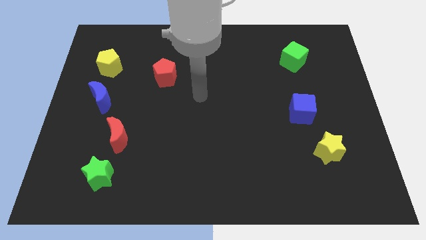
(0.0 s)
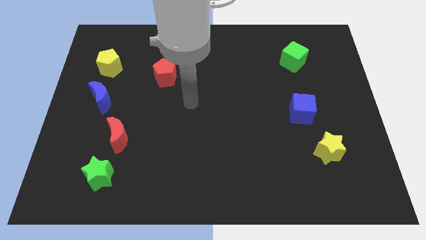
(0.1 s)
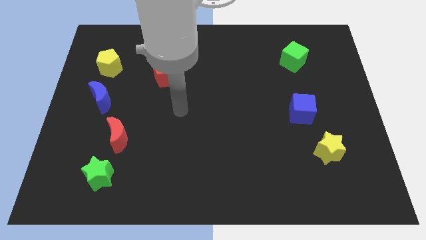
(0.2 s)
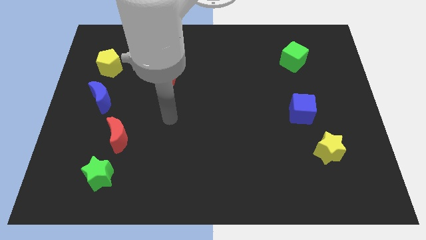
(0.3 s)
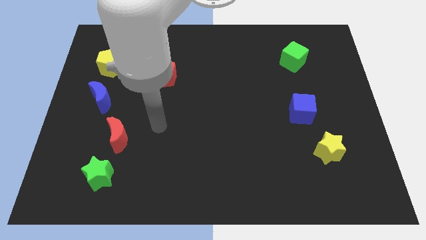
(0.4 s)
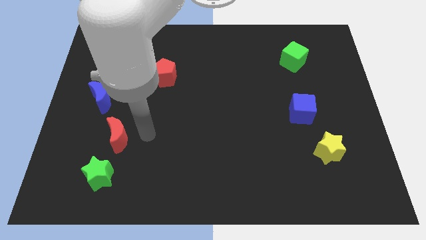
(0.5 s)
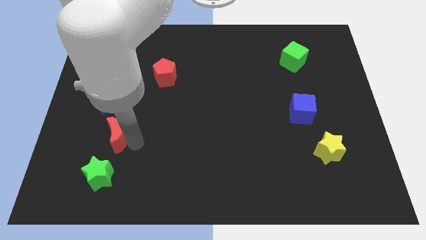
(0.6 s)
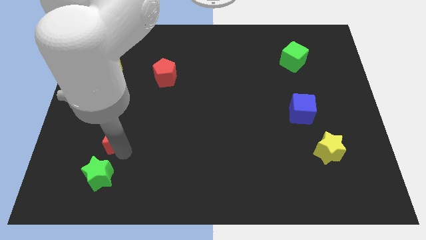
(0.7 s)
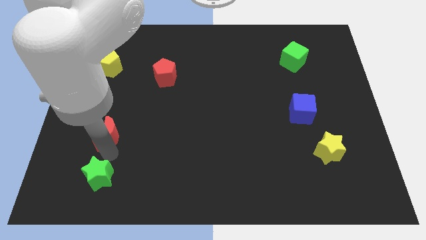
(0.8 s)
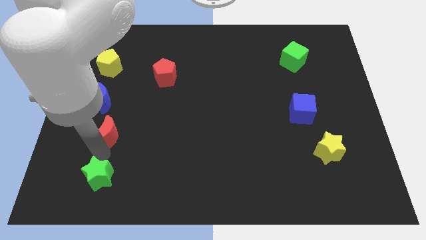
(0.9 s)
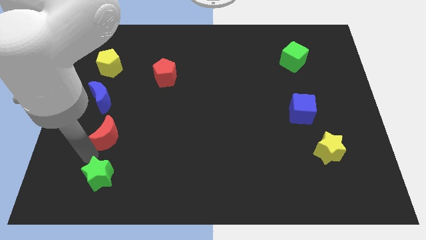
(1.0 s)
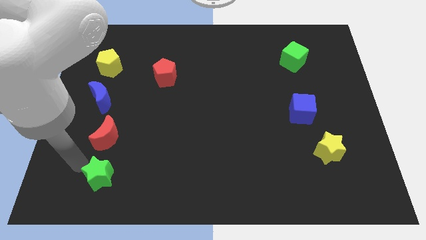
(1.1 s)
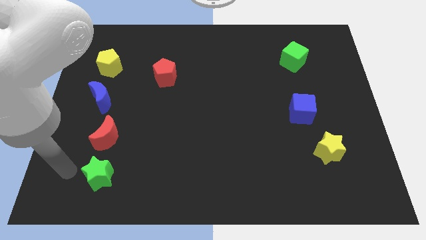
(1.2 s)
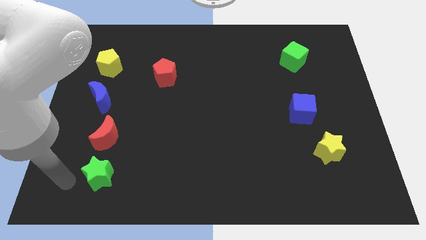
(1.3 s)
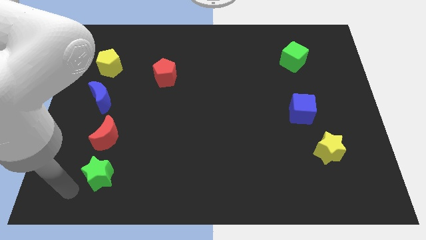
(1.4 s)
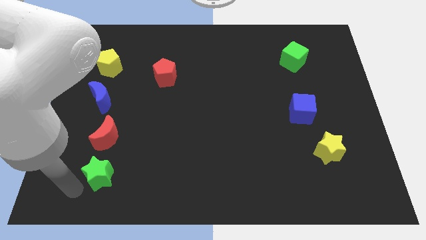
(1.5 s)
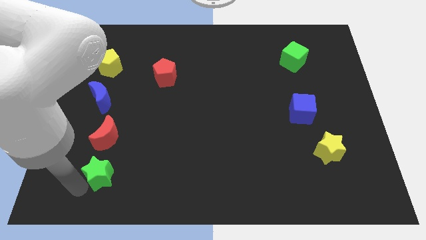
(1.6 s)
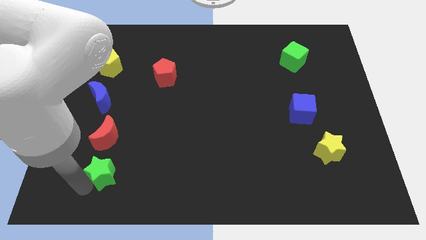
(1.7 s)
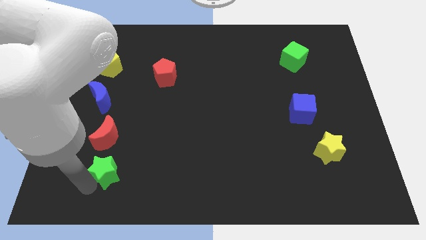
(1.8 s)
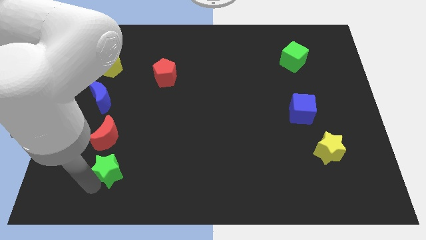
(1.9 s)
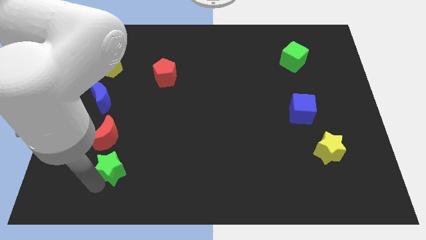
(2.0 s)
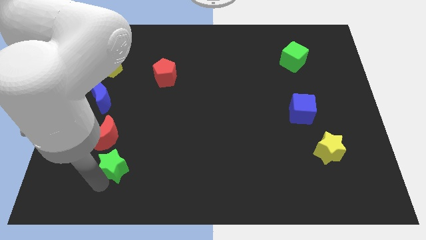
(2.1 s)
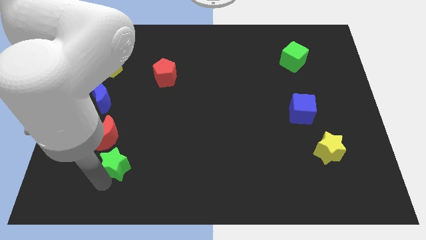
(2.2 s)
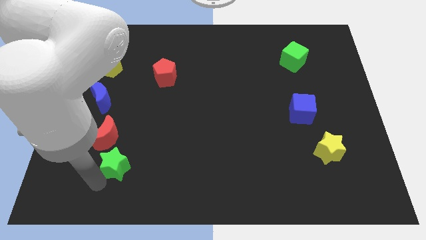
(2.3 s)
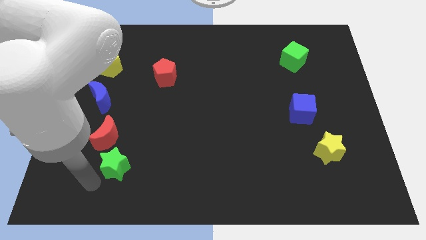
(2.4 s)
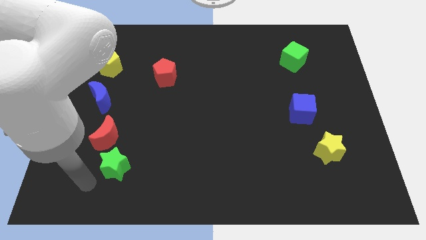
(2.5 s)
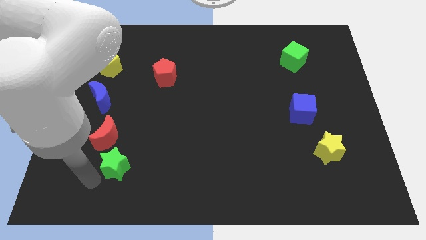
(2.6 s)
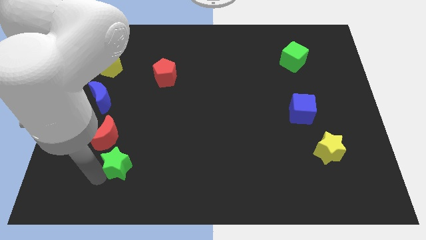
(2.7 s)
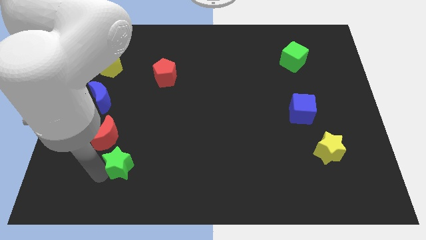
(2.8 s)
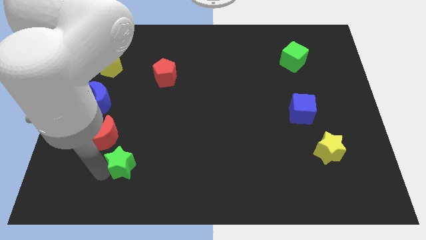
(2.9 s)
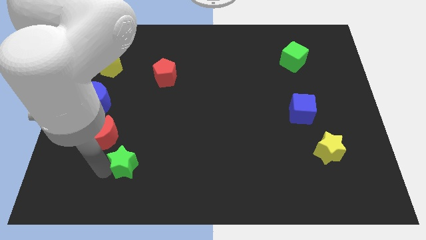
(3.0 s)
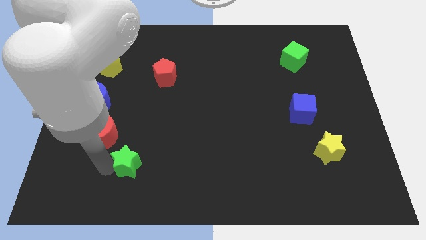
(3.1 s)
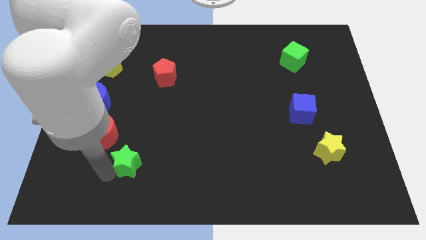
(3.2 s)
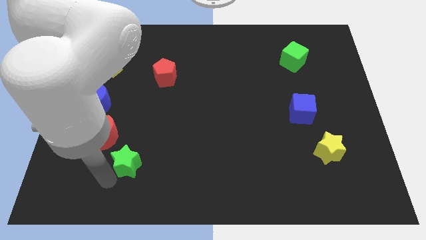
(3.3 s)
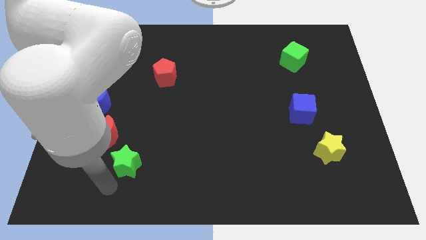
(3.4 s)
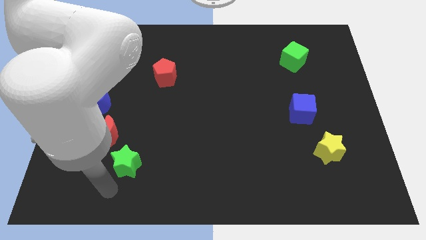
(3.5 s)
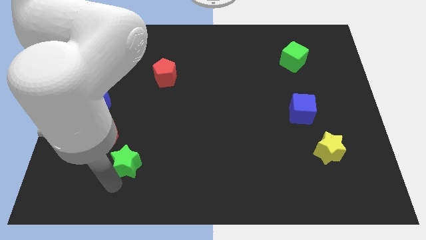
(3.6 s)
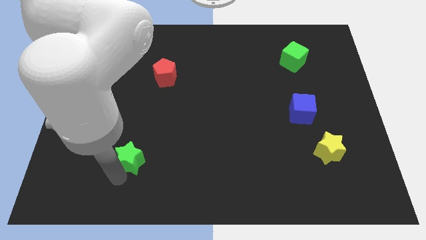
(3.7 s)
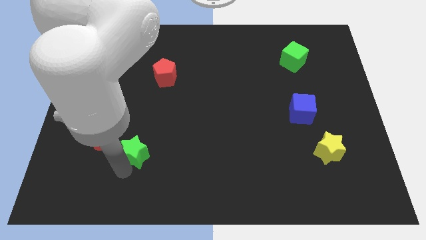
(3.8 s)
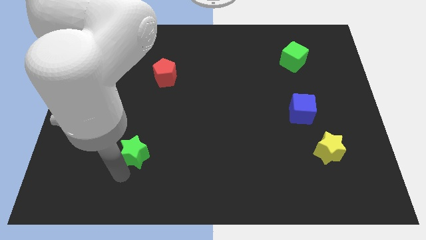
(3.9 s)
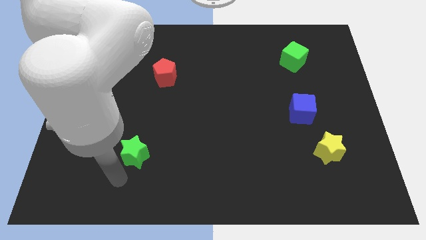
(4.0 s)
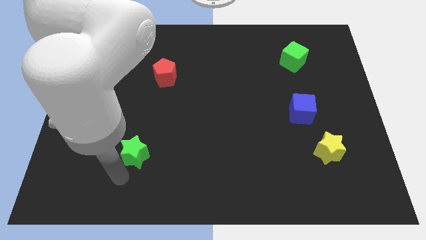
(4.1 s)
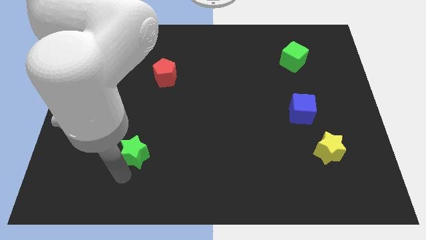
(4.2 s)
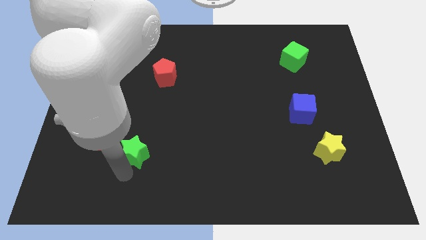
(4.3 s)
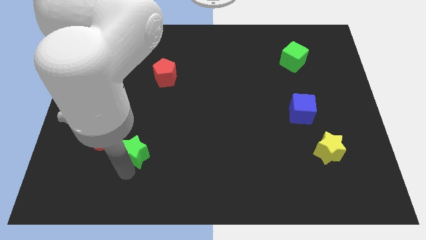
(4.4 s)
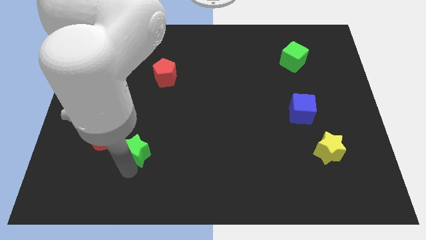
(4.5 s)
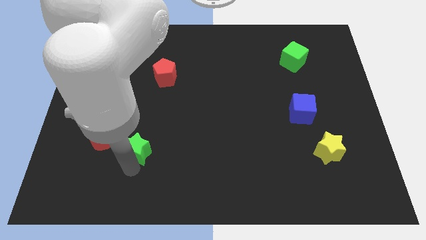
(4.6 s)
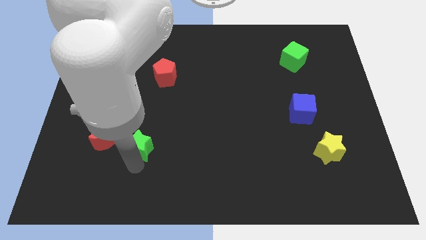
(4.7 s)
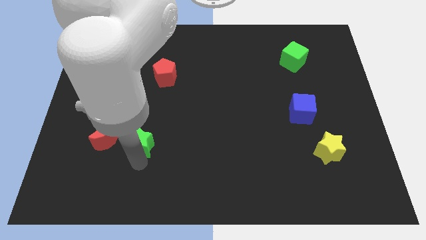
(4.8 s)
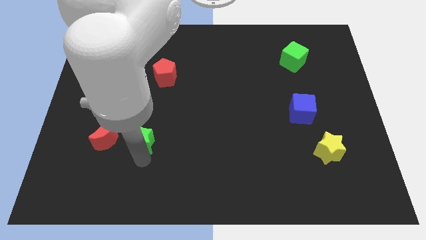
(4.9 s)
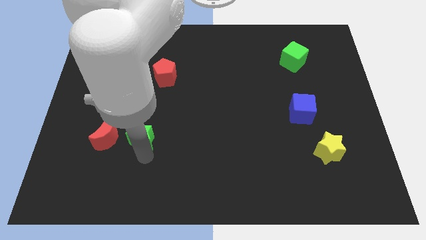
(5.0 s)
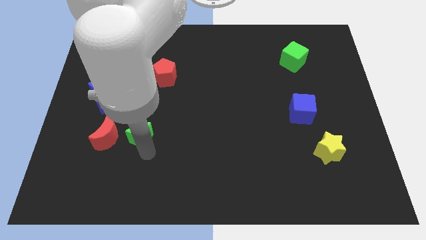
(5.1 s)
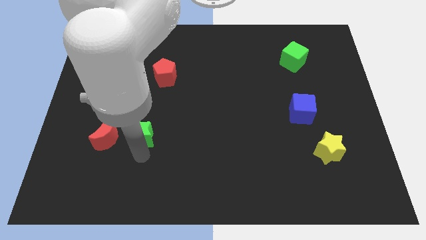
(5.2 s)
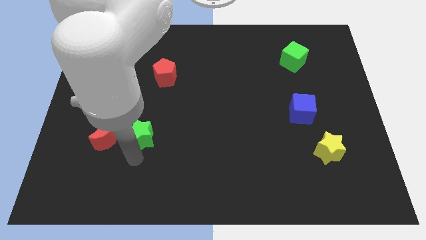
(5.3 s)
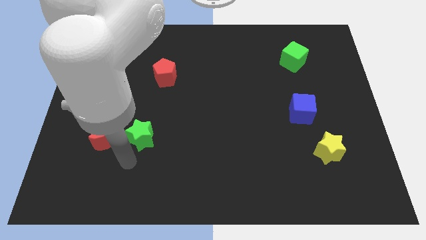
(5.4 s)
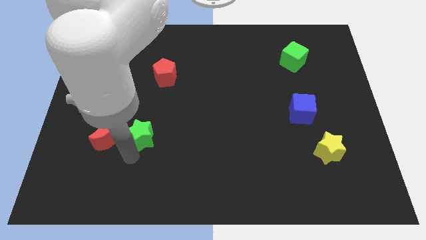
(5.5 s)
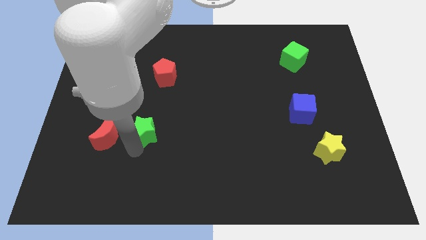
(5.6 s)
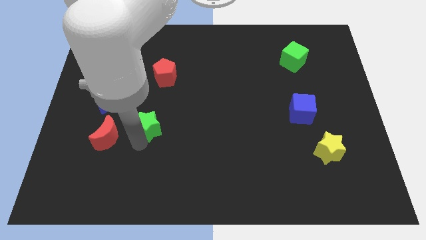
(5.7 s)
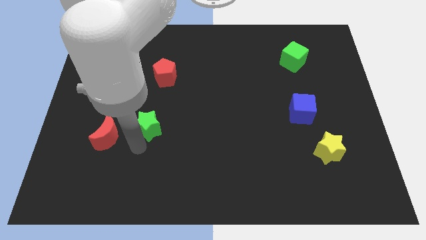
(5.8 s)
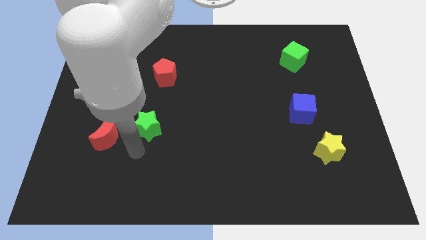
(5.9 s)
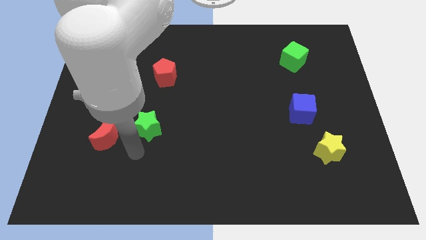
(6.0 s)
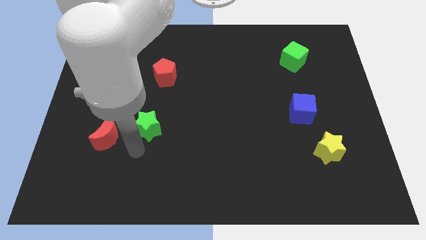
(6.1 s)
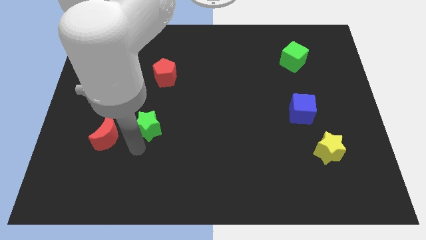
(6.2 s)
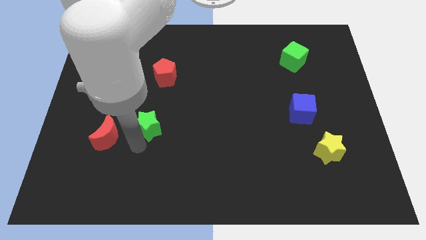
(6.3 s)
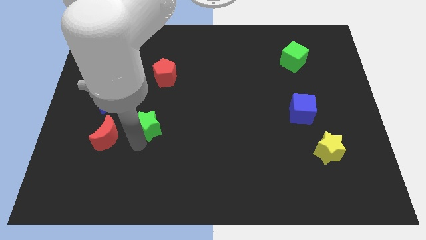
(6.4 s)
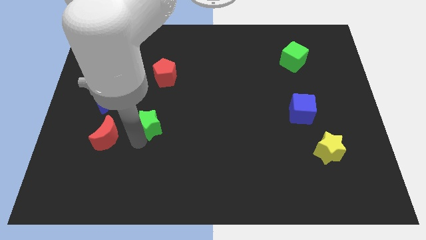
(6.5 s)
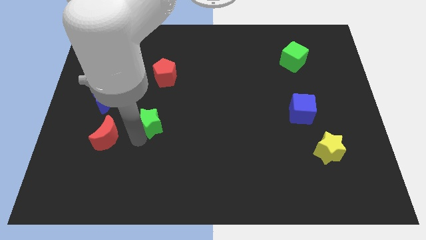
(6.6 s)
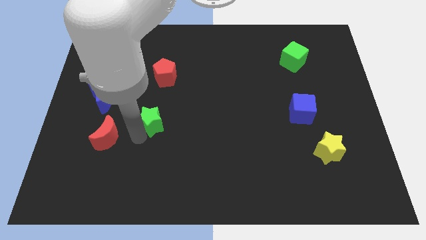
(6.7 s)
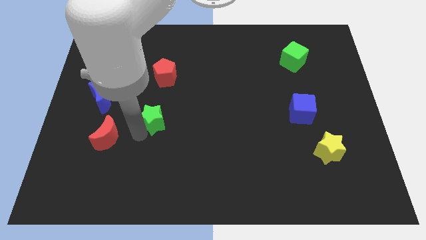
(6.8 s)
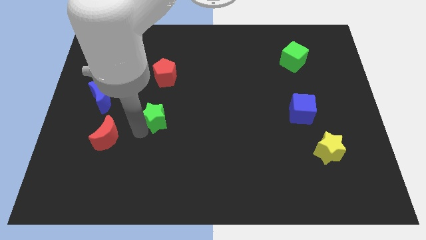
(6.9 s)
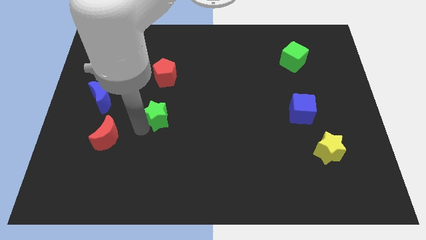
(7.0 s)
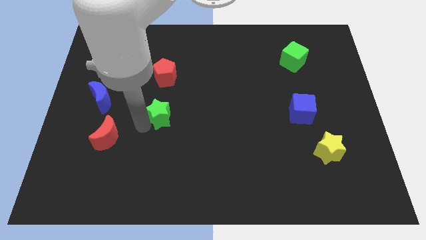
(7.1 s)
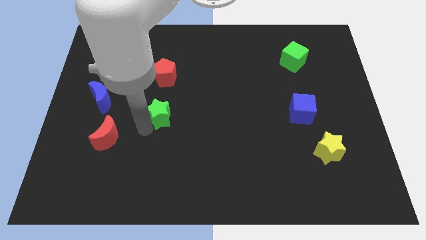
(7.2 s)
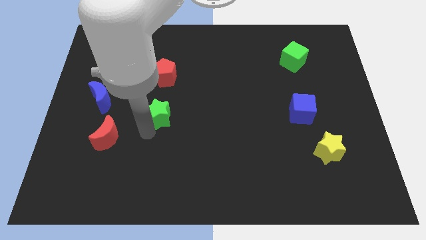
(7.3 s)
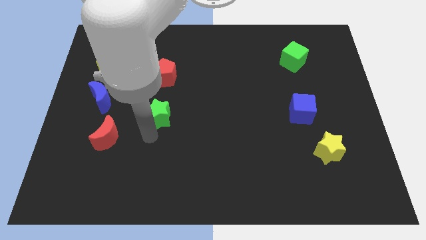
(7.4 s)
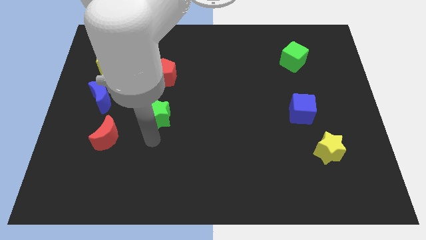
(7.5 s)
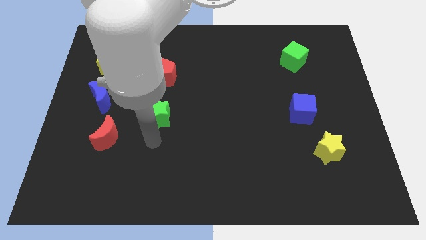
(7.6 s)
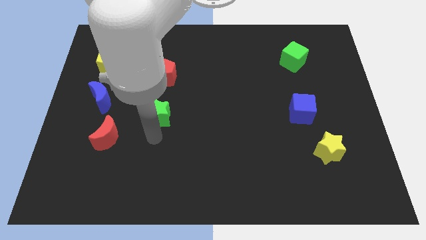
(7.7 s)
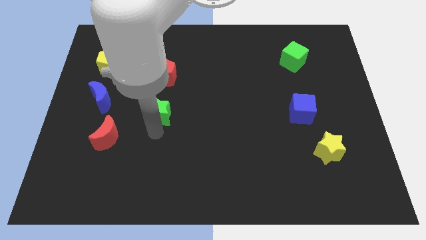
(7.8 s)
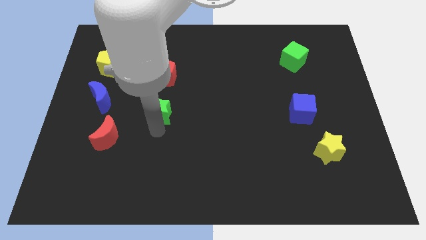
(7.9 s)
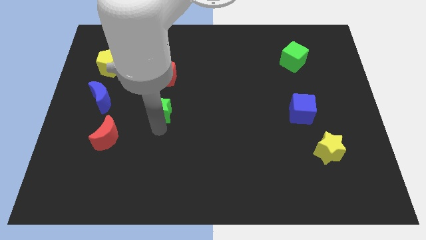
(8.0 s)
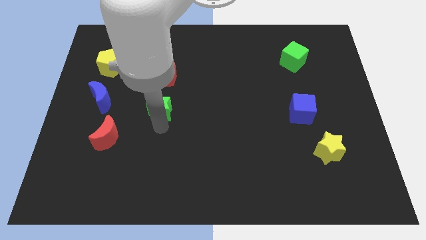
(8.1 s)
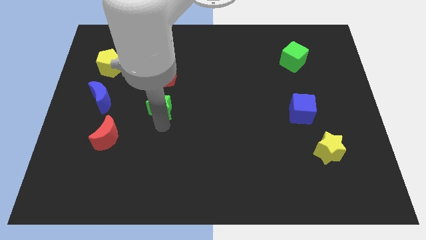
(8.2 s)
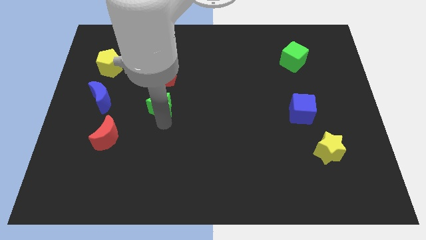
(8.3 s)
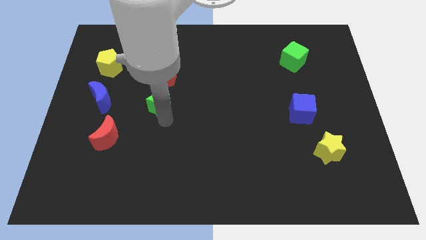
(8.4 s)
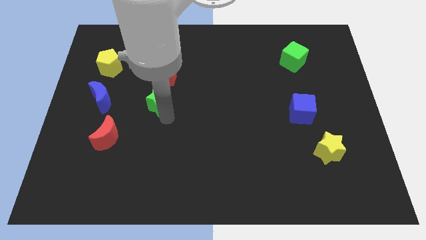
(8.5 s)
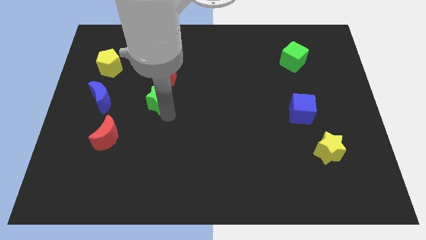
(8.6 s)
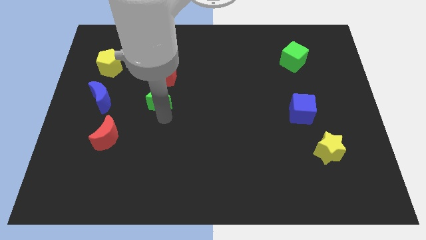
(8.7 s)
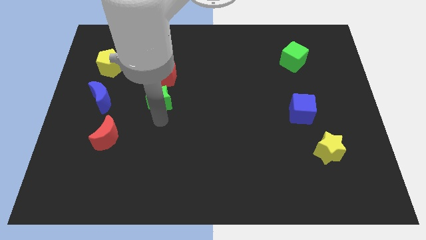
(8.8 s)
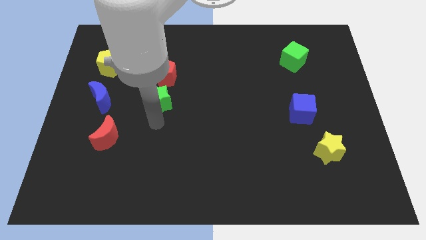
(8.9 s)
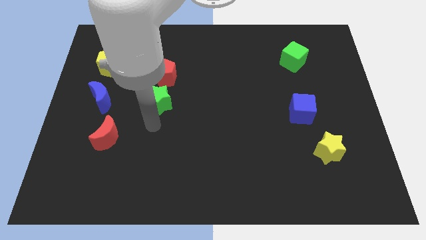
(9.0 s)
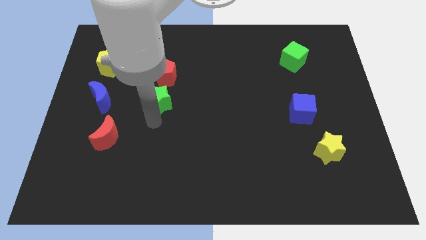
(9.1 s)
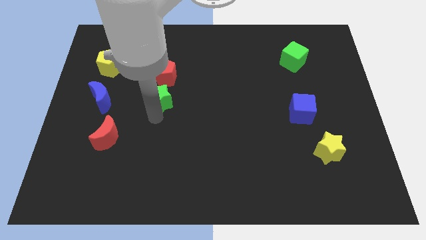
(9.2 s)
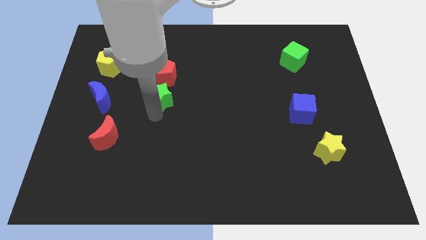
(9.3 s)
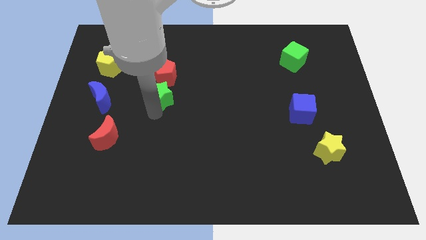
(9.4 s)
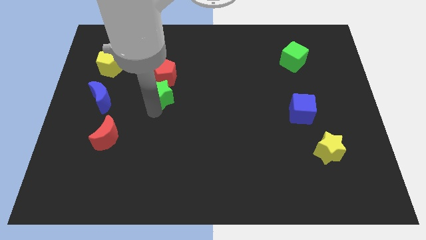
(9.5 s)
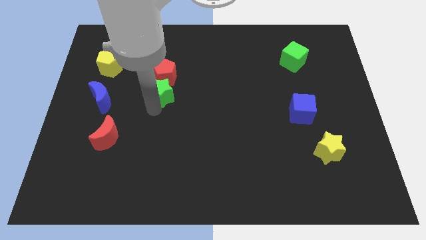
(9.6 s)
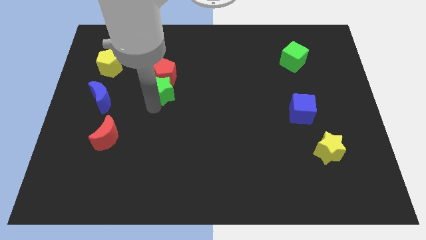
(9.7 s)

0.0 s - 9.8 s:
move the green star close to the red pentagon
